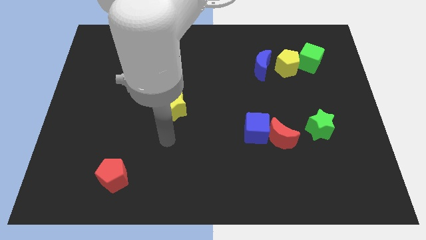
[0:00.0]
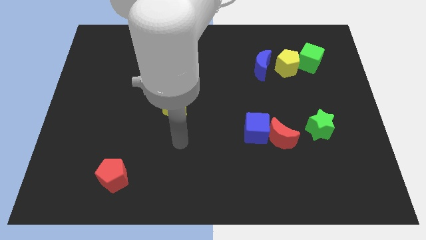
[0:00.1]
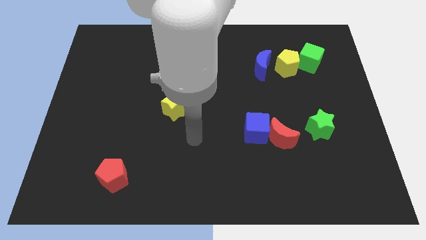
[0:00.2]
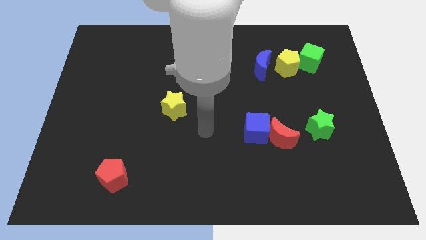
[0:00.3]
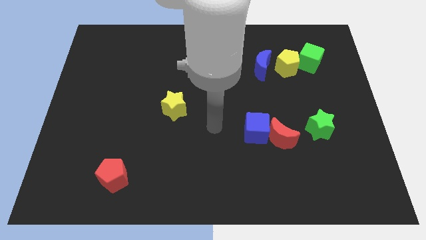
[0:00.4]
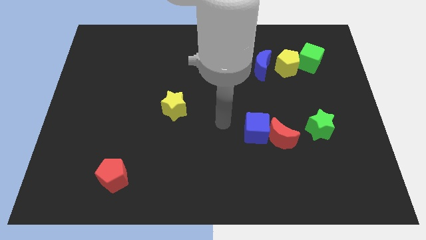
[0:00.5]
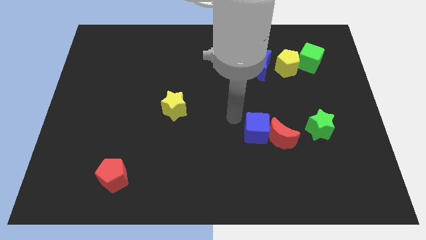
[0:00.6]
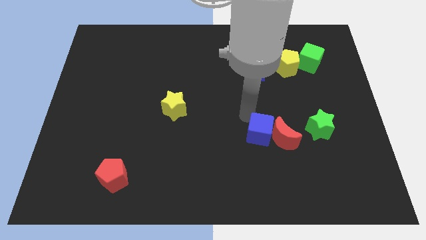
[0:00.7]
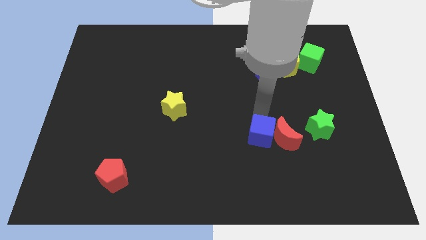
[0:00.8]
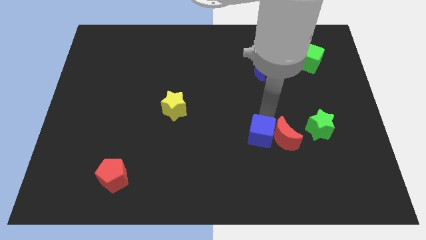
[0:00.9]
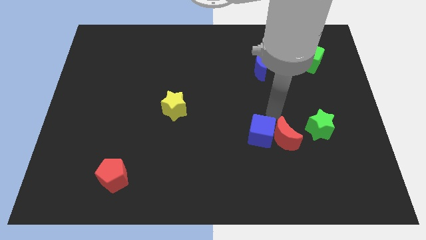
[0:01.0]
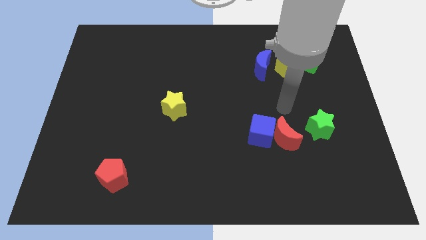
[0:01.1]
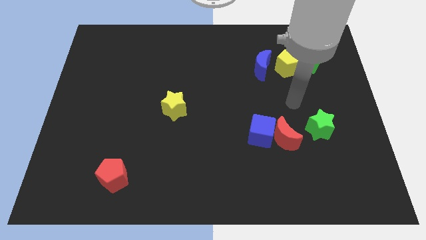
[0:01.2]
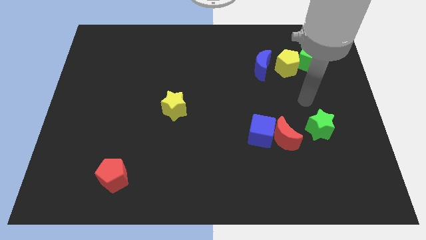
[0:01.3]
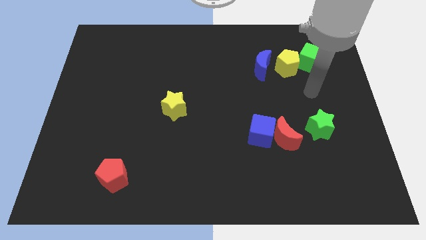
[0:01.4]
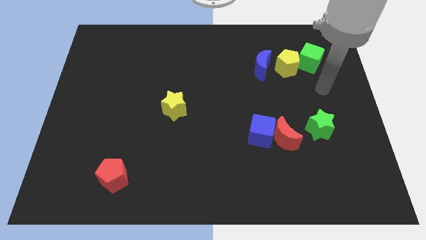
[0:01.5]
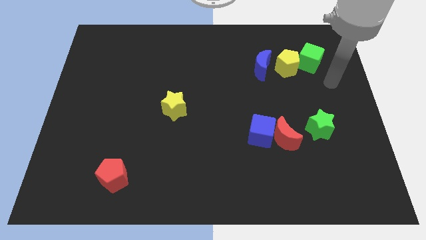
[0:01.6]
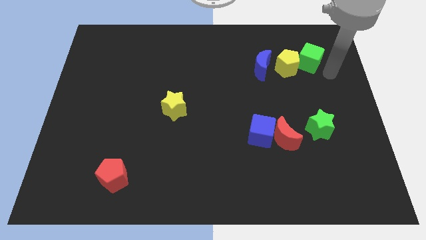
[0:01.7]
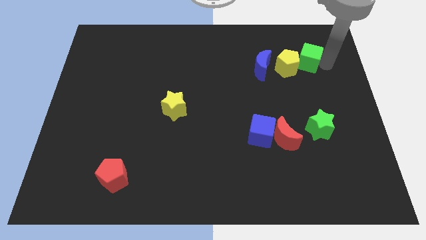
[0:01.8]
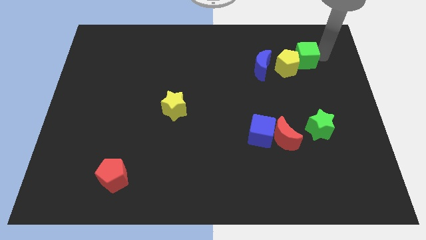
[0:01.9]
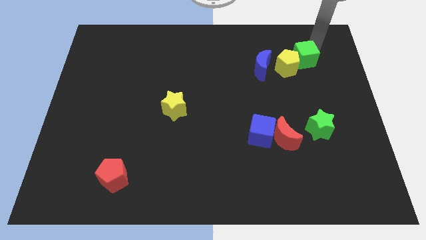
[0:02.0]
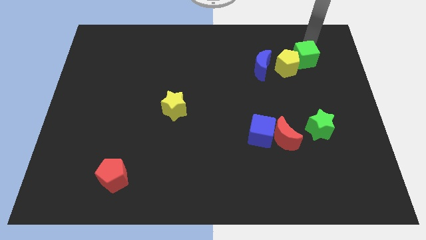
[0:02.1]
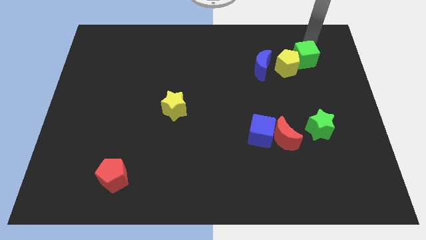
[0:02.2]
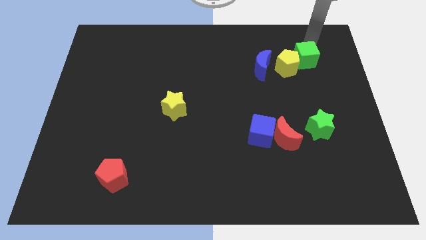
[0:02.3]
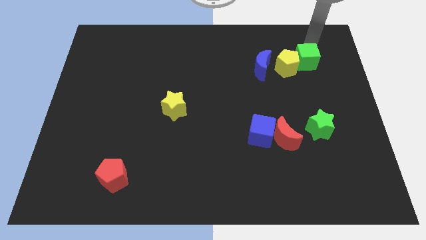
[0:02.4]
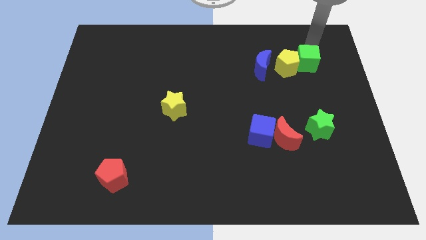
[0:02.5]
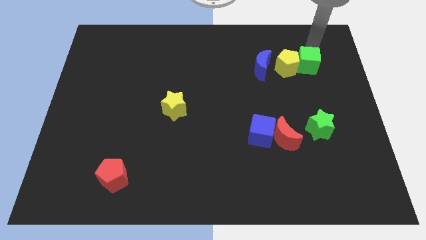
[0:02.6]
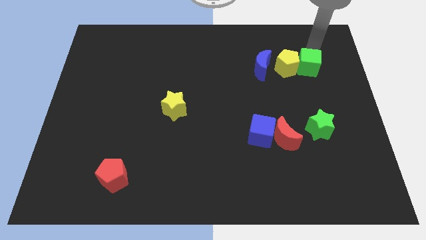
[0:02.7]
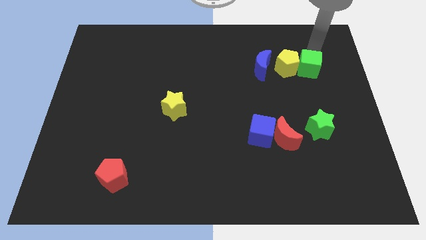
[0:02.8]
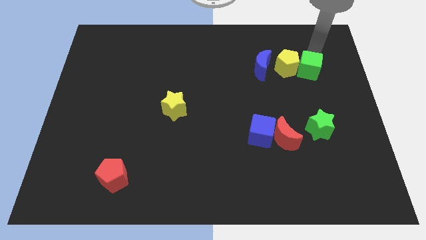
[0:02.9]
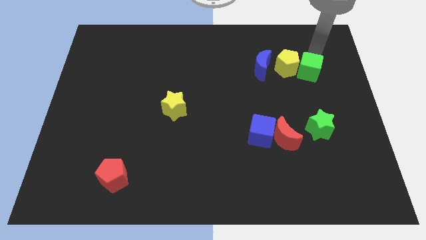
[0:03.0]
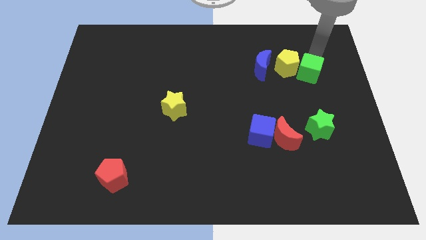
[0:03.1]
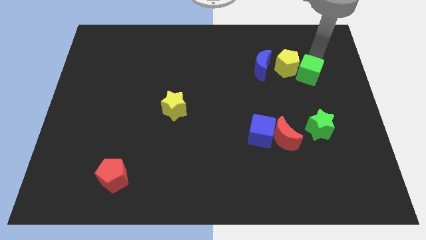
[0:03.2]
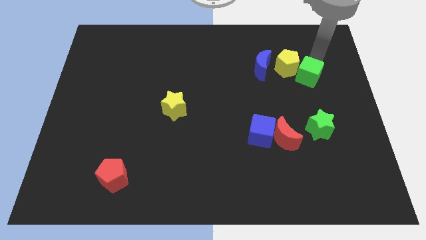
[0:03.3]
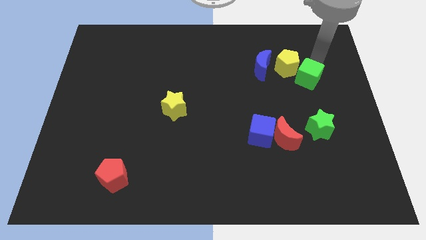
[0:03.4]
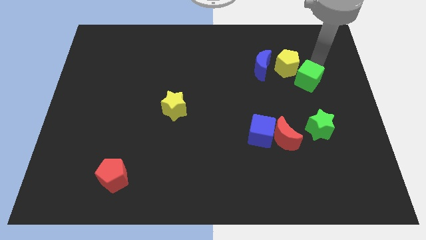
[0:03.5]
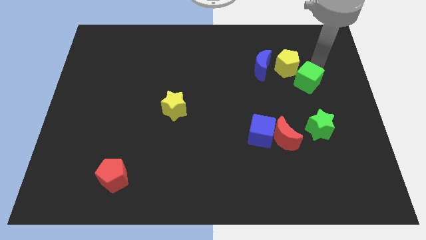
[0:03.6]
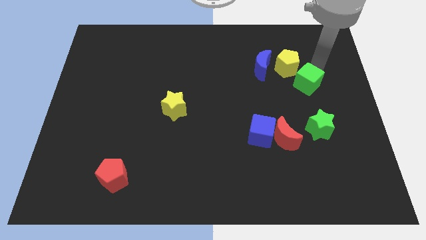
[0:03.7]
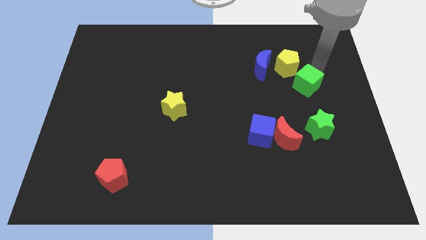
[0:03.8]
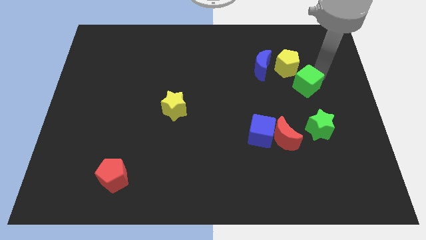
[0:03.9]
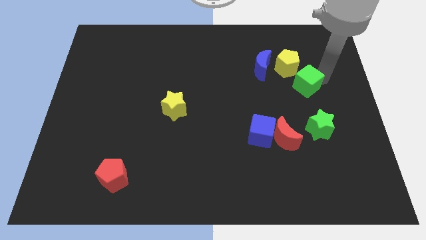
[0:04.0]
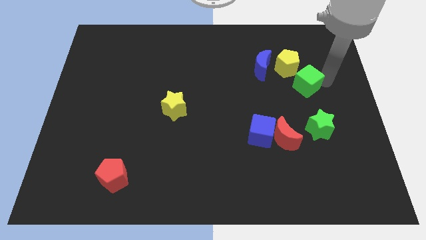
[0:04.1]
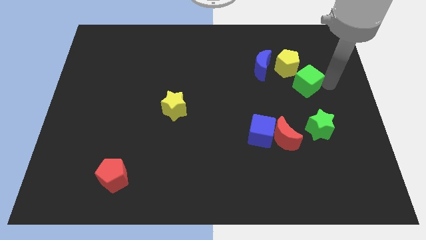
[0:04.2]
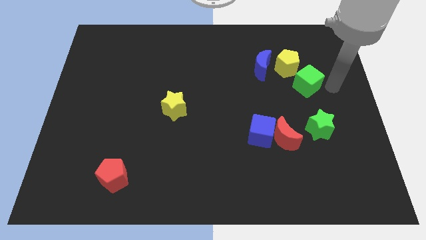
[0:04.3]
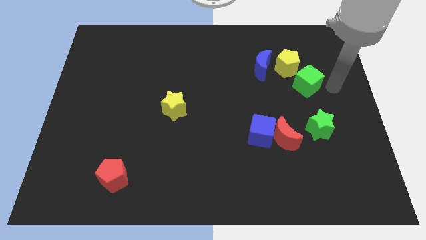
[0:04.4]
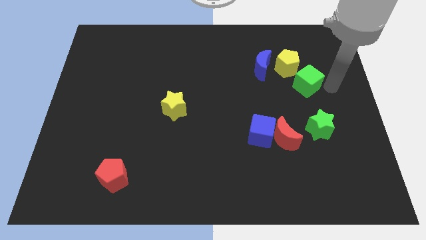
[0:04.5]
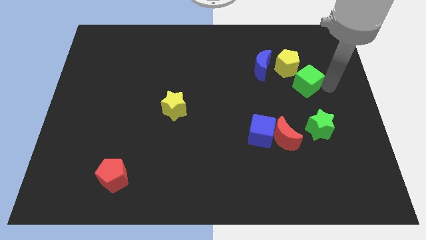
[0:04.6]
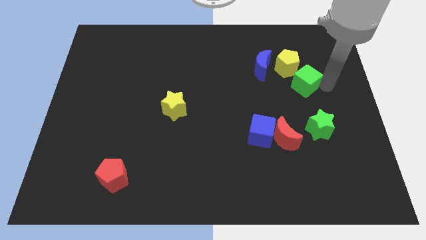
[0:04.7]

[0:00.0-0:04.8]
slide the green cube diagonally down and to the left a little bit

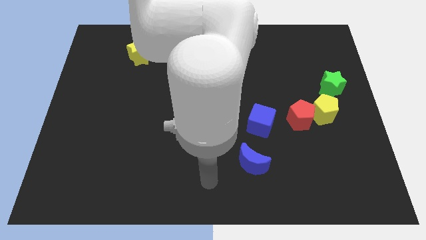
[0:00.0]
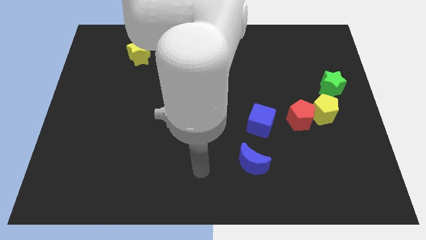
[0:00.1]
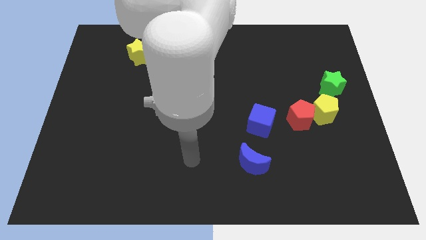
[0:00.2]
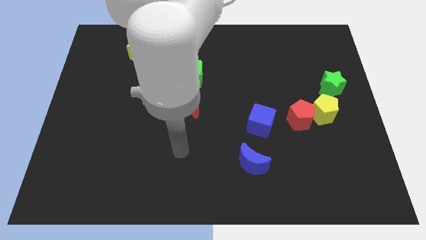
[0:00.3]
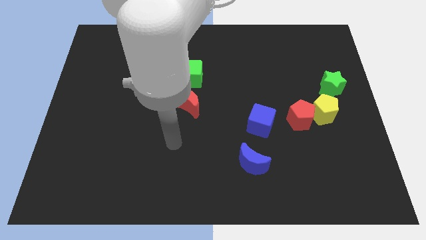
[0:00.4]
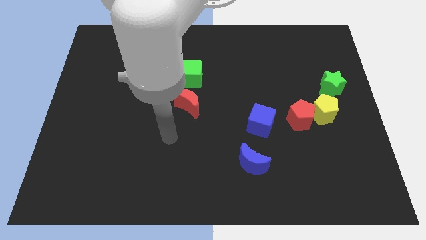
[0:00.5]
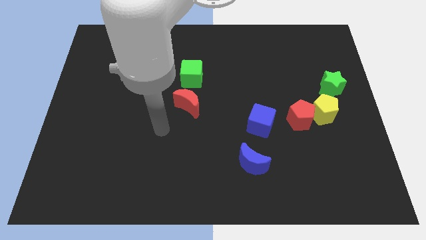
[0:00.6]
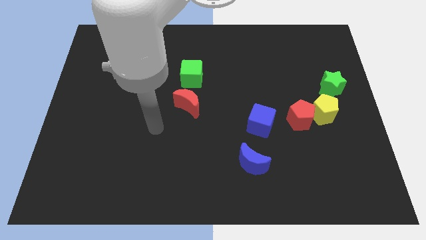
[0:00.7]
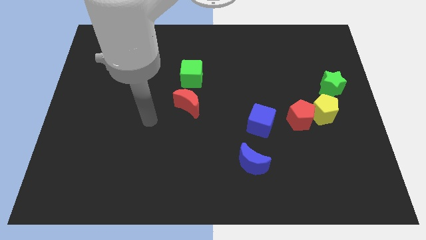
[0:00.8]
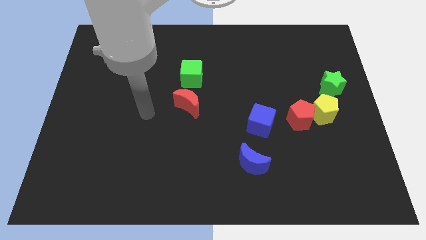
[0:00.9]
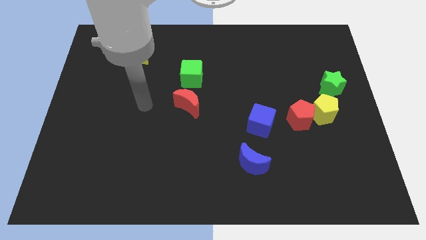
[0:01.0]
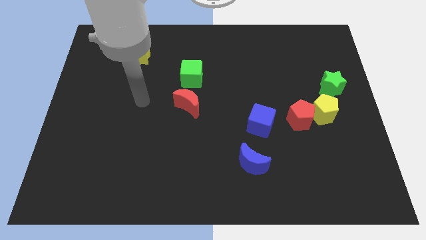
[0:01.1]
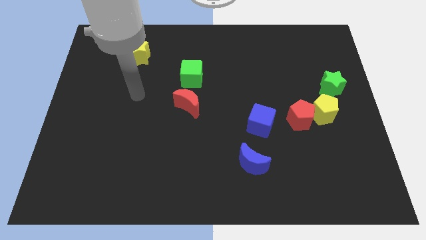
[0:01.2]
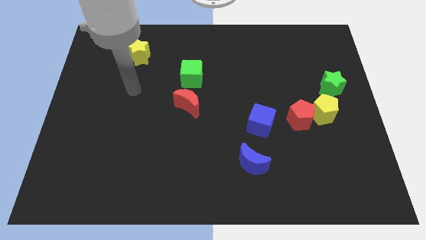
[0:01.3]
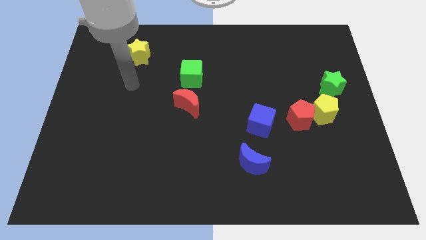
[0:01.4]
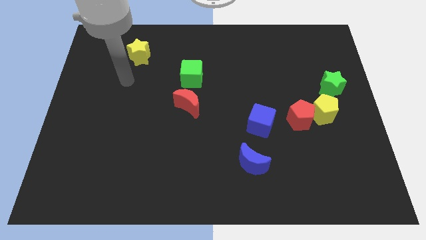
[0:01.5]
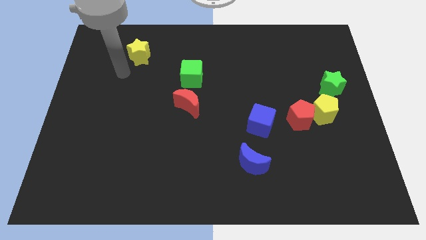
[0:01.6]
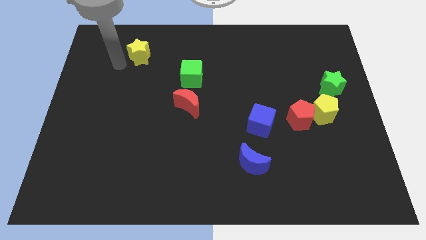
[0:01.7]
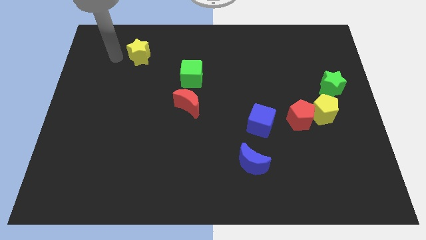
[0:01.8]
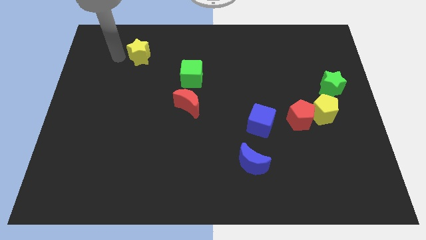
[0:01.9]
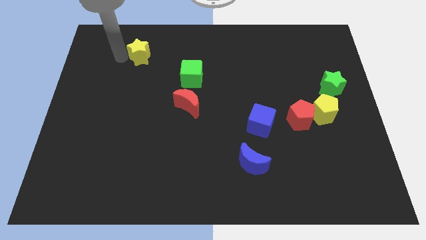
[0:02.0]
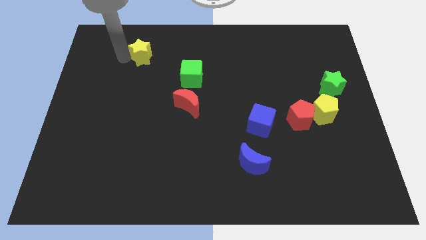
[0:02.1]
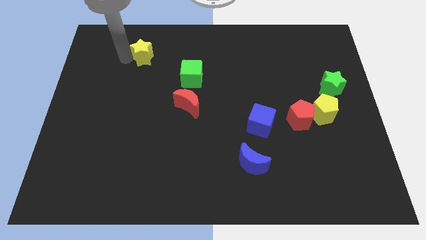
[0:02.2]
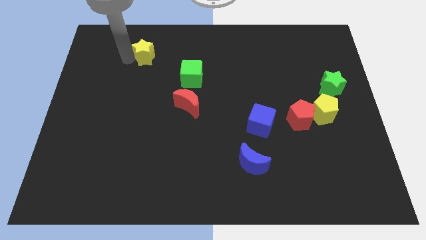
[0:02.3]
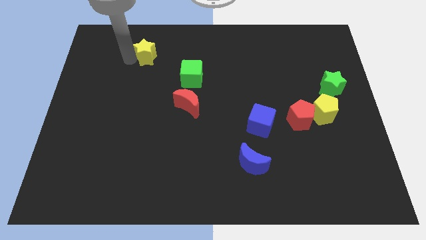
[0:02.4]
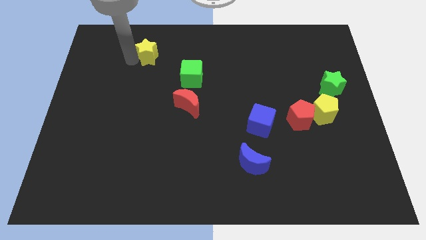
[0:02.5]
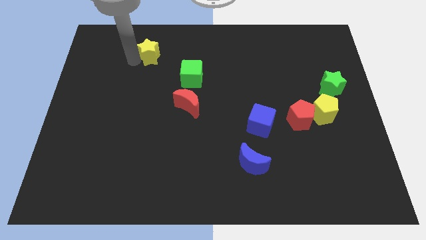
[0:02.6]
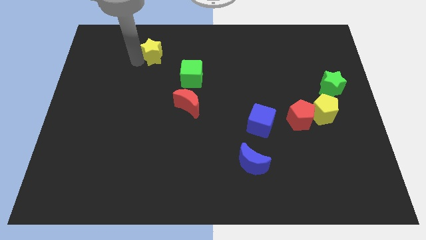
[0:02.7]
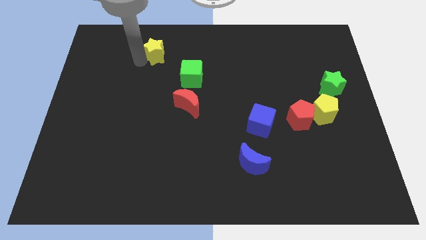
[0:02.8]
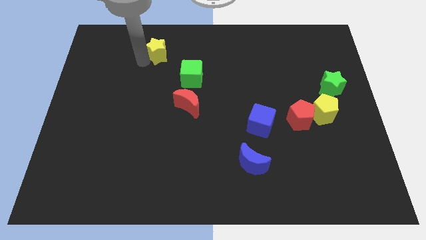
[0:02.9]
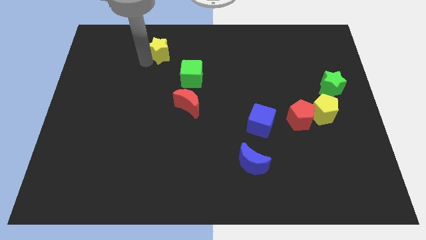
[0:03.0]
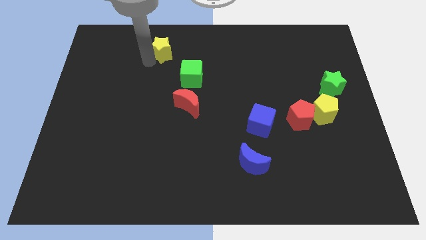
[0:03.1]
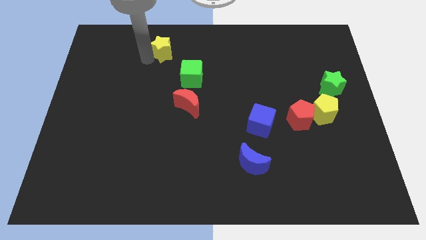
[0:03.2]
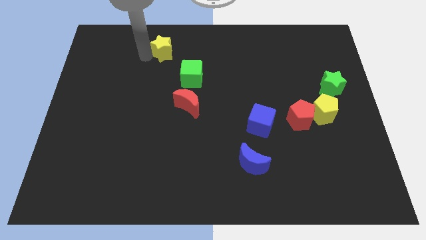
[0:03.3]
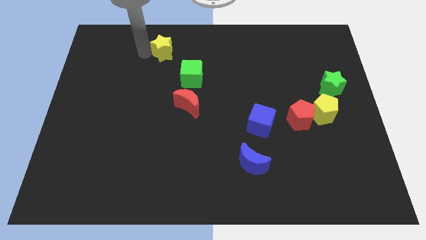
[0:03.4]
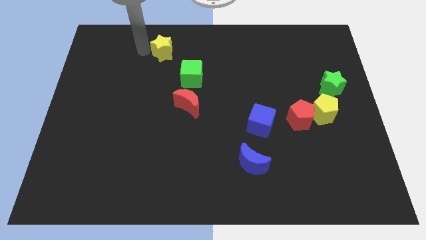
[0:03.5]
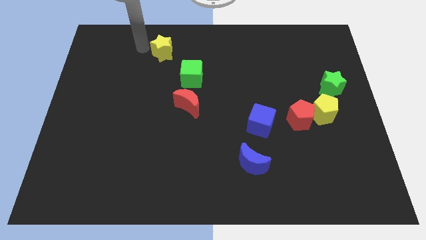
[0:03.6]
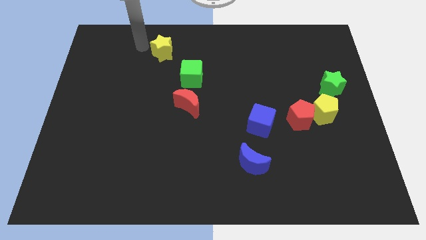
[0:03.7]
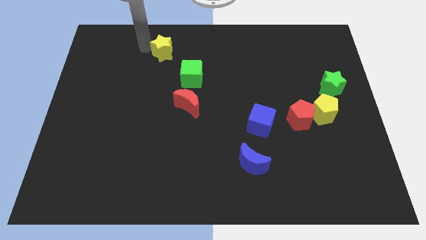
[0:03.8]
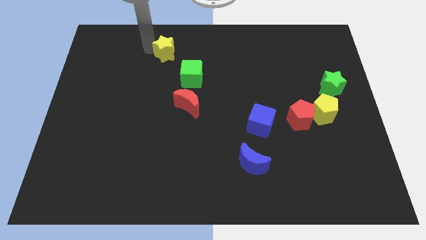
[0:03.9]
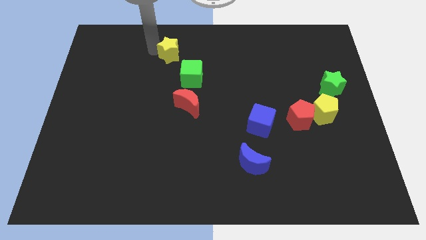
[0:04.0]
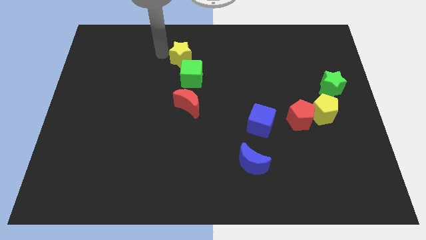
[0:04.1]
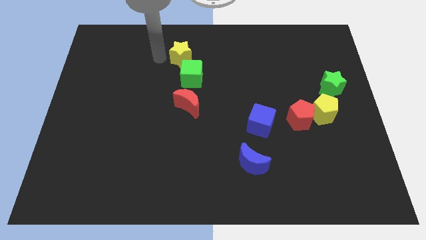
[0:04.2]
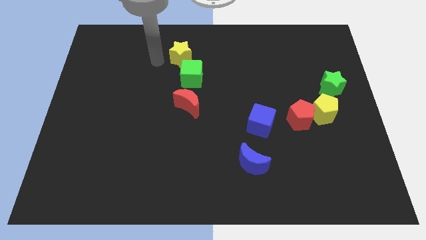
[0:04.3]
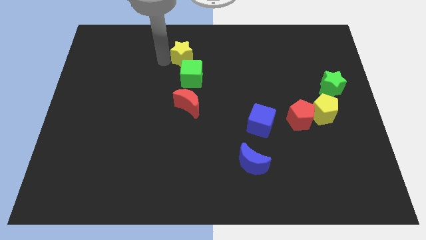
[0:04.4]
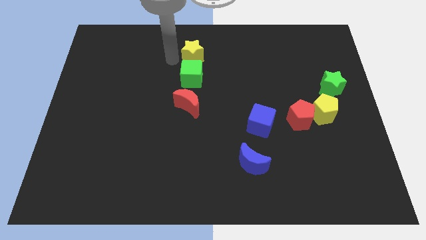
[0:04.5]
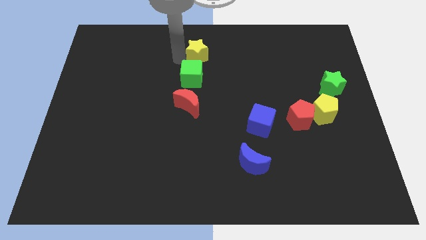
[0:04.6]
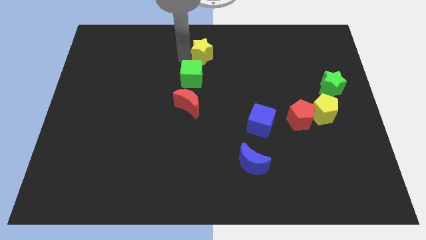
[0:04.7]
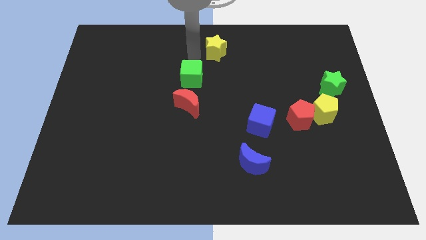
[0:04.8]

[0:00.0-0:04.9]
move the yellow star right
